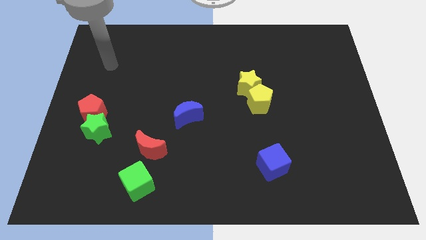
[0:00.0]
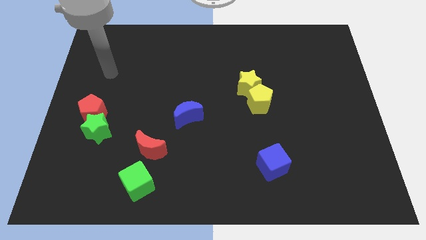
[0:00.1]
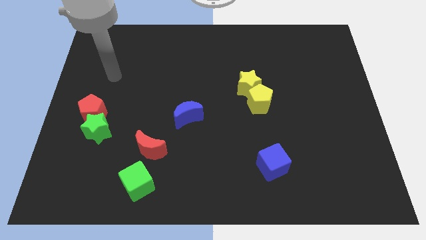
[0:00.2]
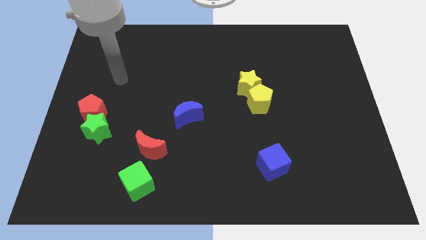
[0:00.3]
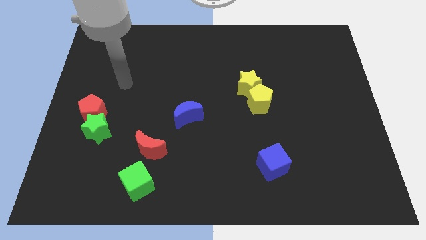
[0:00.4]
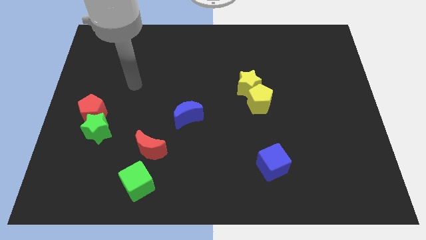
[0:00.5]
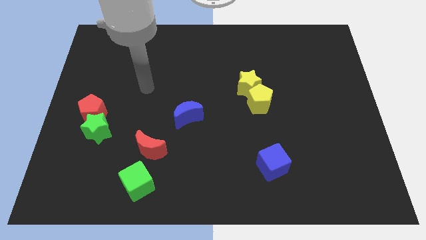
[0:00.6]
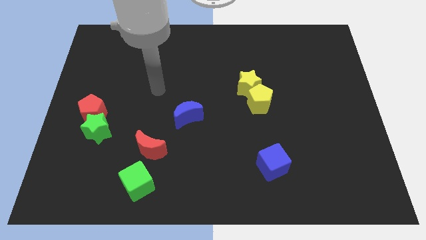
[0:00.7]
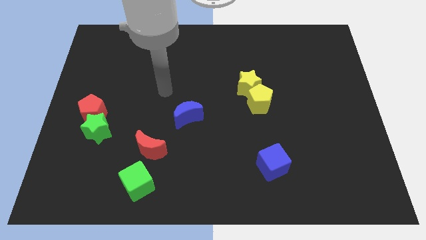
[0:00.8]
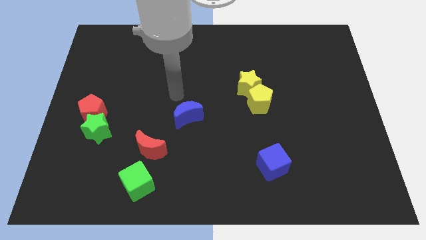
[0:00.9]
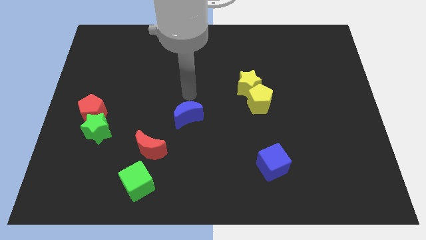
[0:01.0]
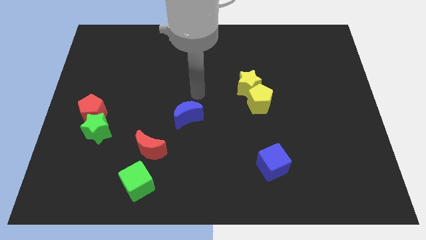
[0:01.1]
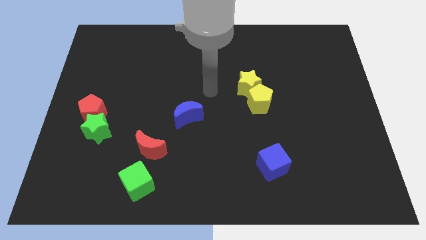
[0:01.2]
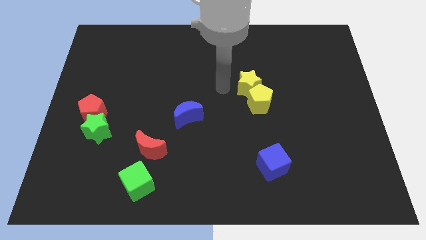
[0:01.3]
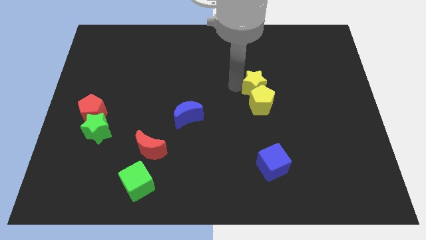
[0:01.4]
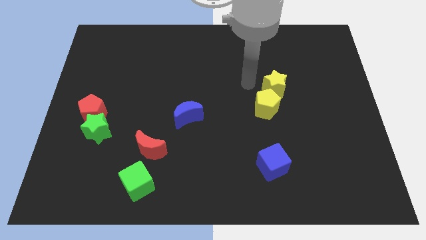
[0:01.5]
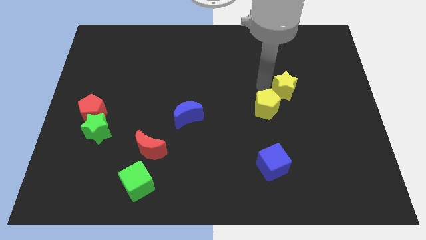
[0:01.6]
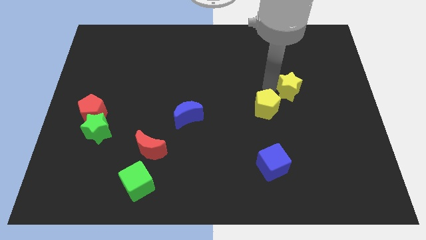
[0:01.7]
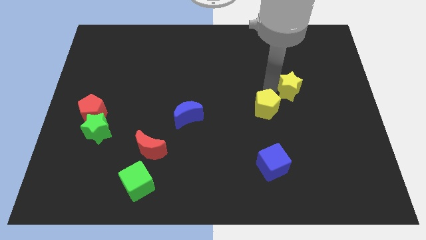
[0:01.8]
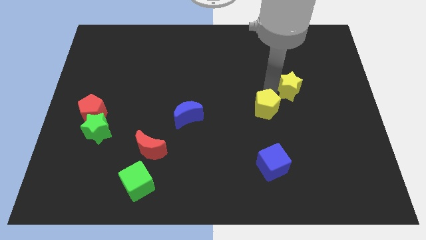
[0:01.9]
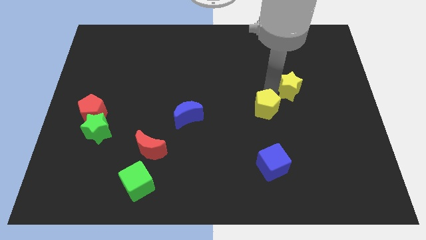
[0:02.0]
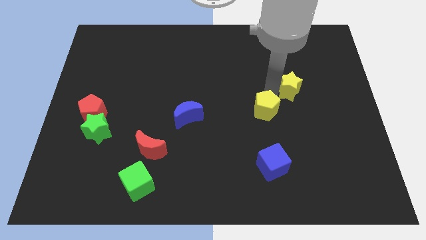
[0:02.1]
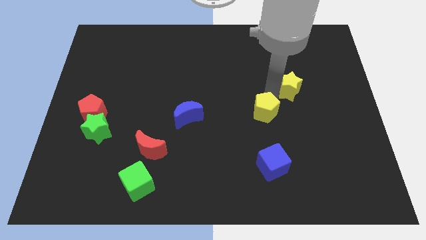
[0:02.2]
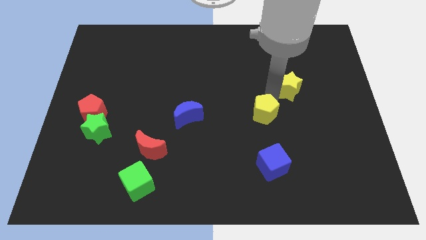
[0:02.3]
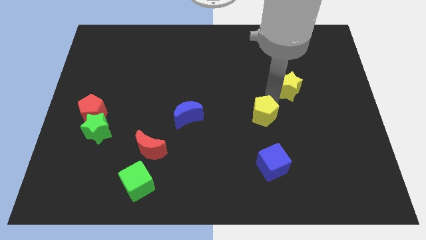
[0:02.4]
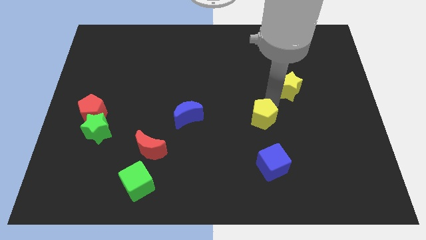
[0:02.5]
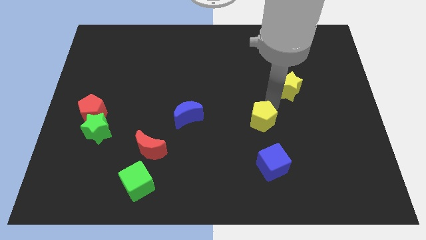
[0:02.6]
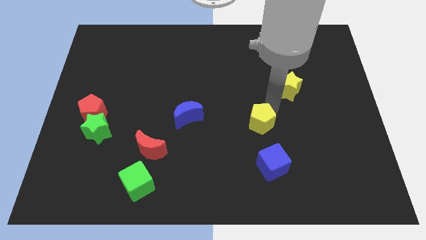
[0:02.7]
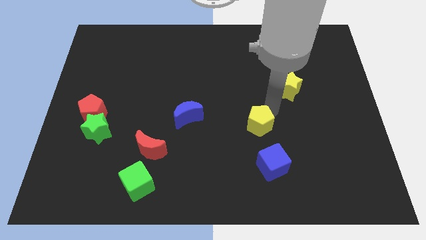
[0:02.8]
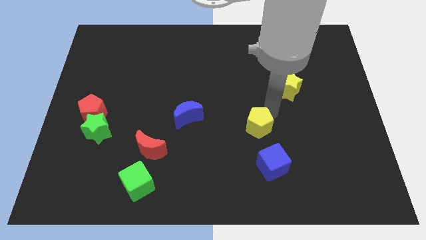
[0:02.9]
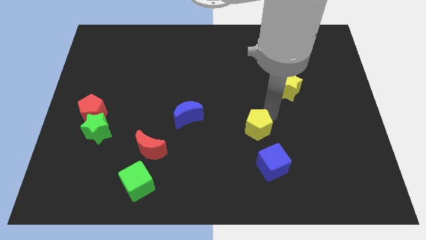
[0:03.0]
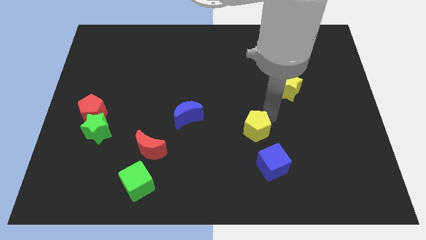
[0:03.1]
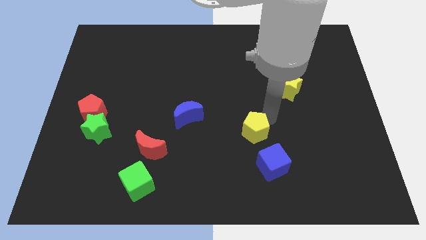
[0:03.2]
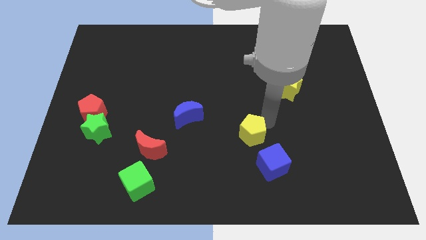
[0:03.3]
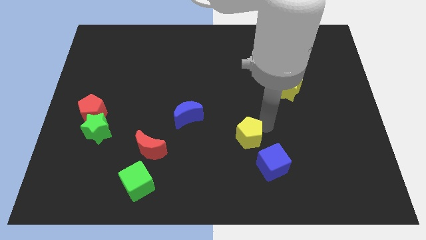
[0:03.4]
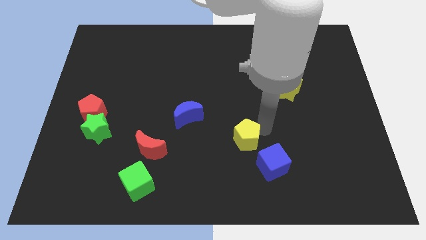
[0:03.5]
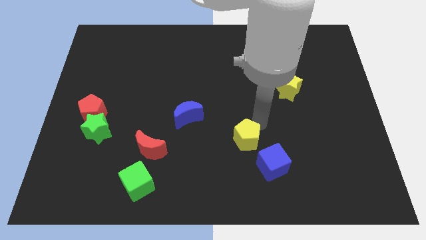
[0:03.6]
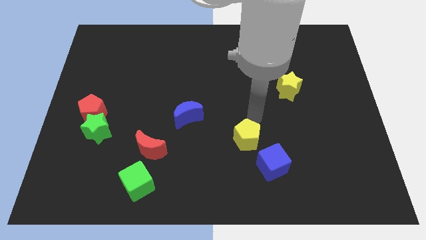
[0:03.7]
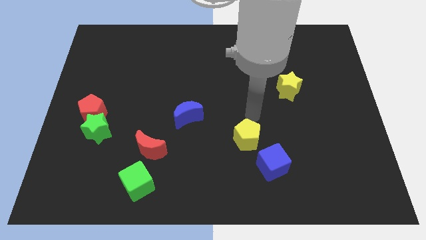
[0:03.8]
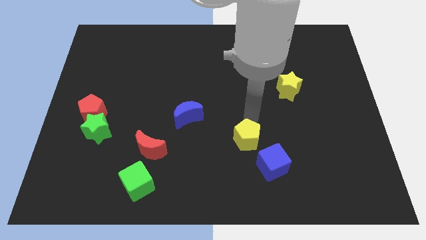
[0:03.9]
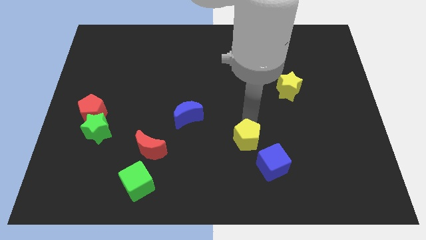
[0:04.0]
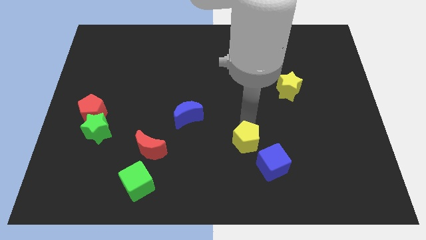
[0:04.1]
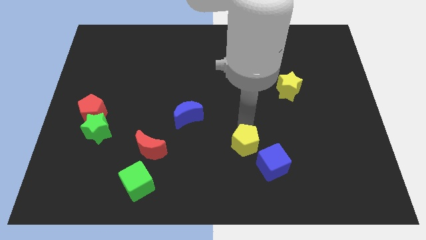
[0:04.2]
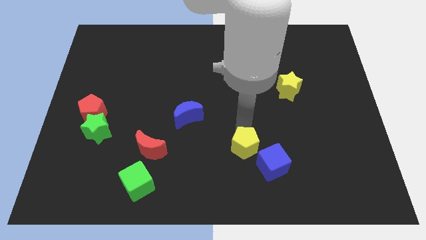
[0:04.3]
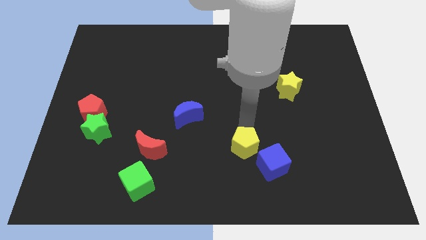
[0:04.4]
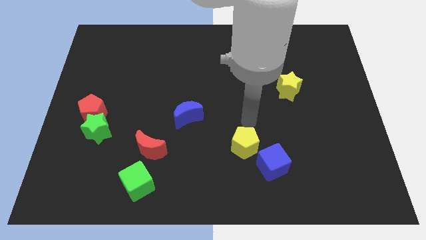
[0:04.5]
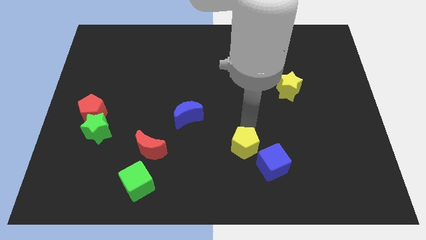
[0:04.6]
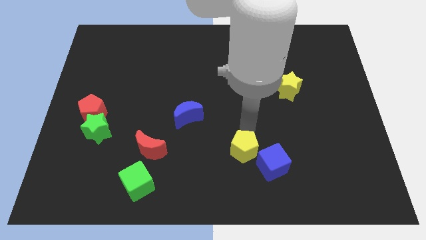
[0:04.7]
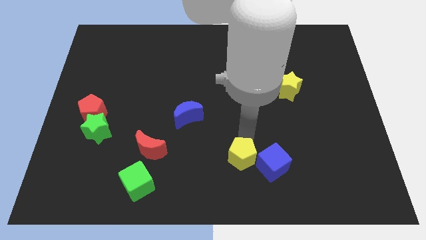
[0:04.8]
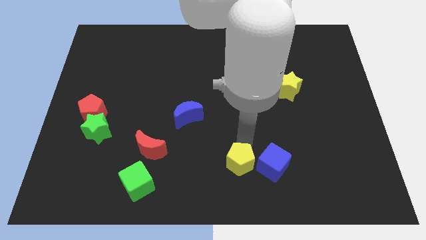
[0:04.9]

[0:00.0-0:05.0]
move the yellow pentagon to the bottom

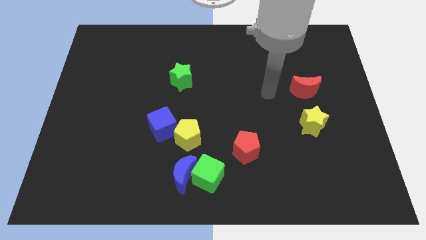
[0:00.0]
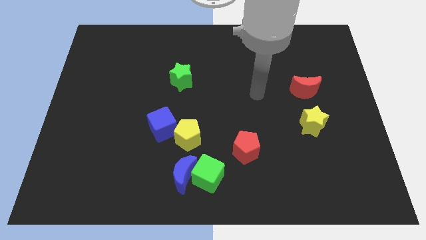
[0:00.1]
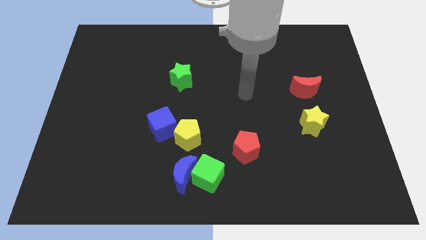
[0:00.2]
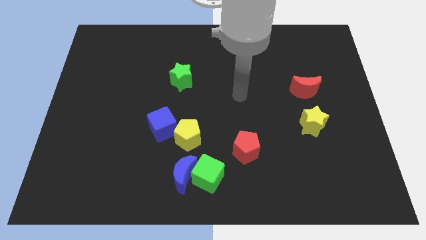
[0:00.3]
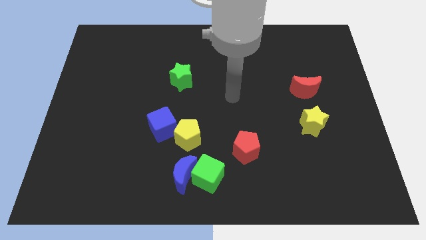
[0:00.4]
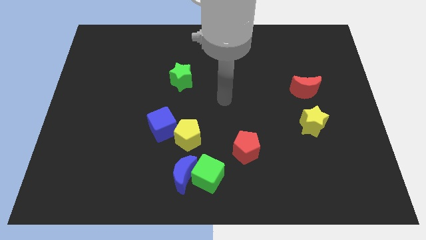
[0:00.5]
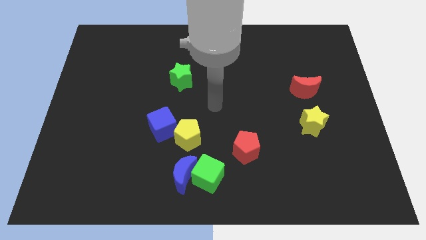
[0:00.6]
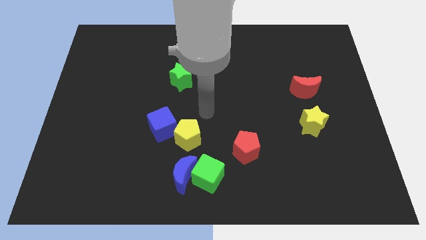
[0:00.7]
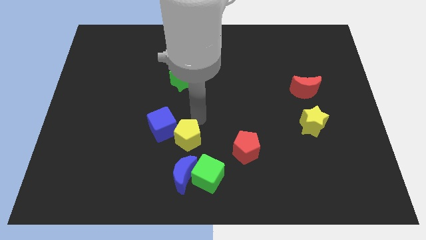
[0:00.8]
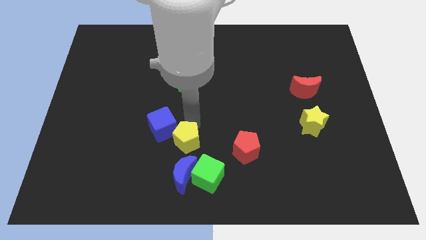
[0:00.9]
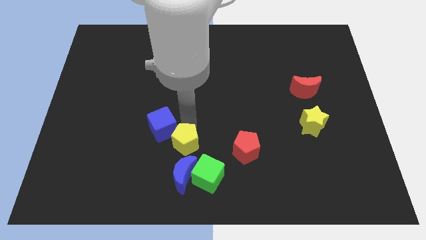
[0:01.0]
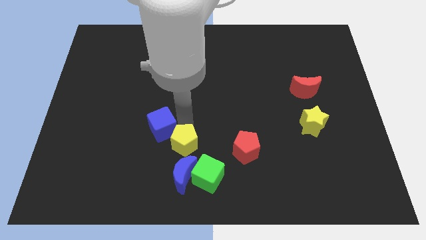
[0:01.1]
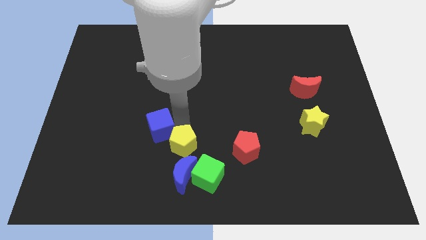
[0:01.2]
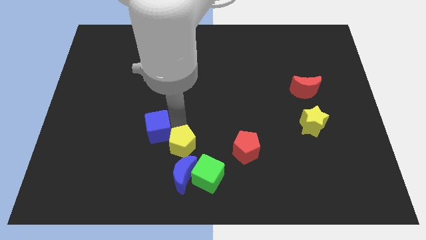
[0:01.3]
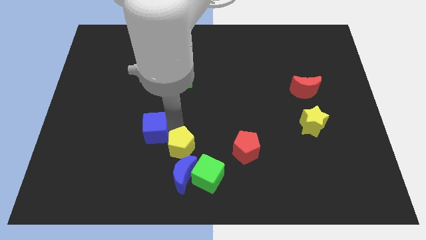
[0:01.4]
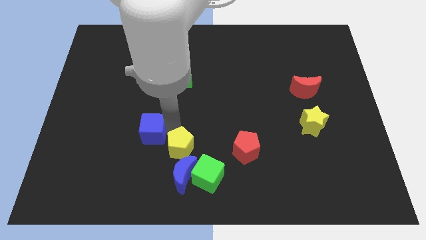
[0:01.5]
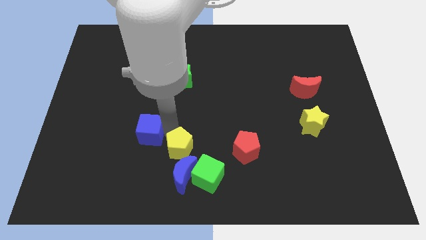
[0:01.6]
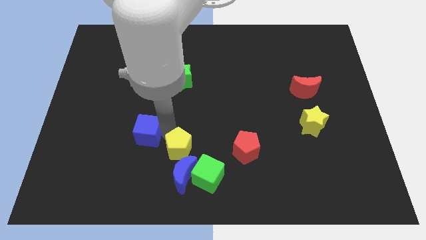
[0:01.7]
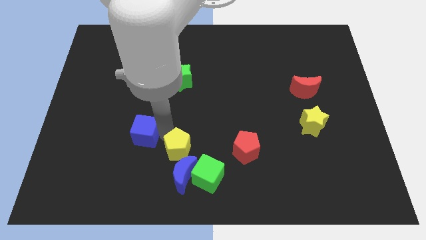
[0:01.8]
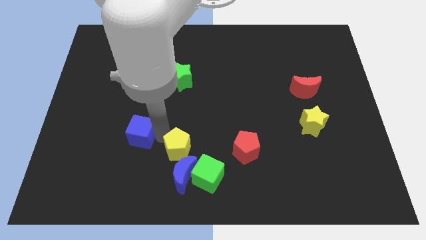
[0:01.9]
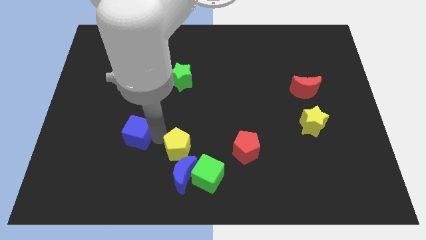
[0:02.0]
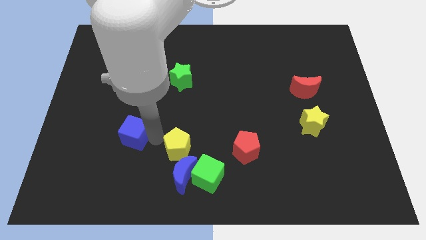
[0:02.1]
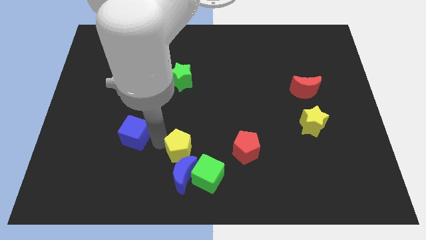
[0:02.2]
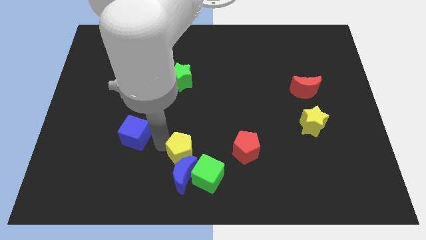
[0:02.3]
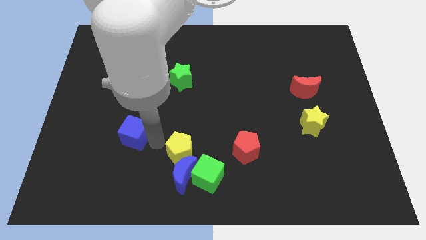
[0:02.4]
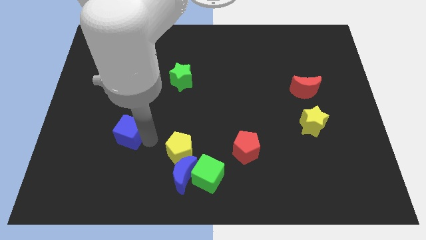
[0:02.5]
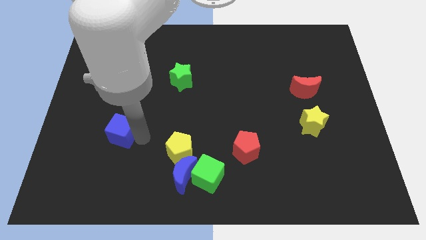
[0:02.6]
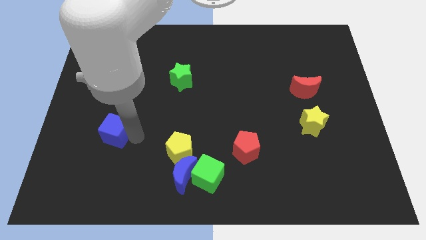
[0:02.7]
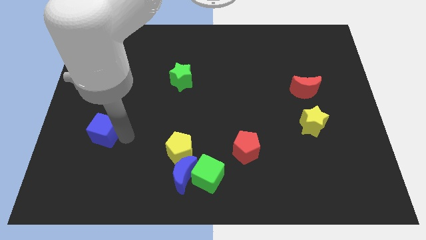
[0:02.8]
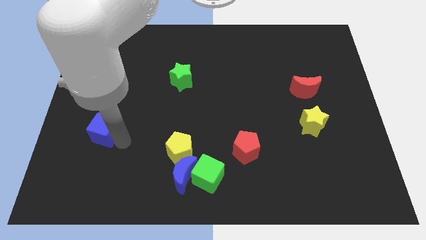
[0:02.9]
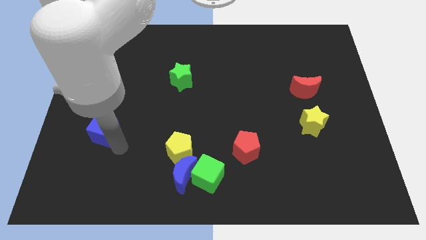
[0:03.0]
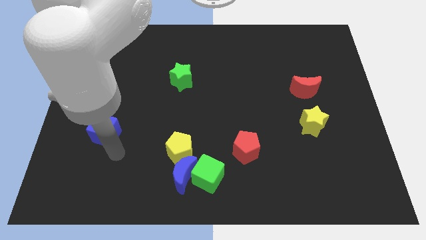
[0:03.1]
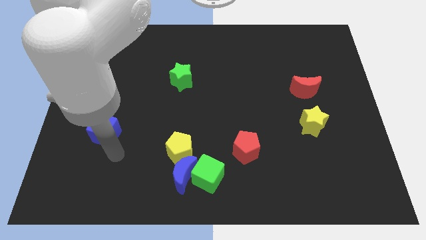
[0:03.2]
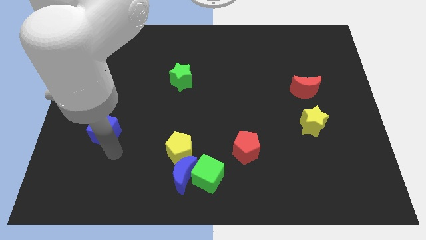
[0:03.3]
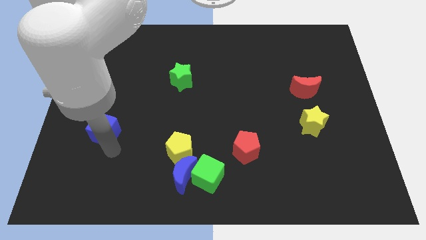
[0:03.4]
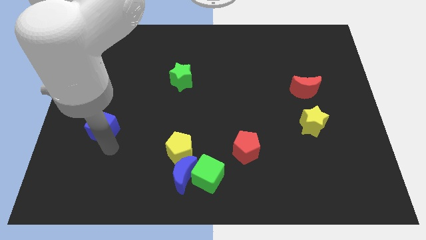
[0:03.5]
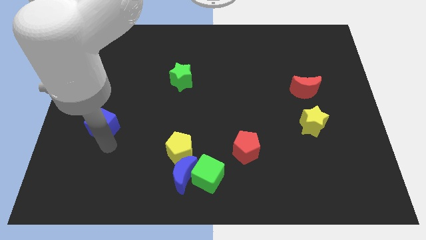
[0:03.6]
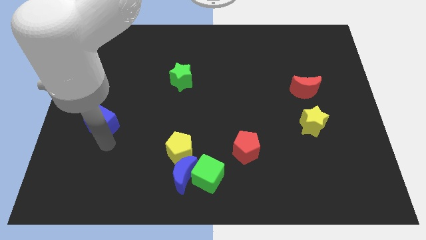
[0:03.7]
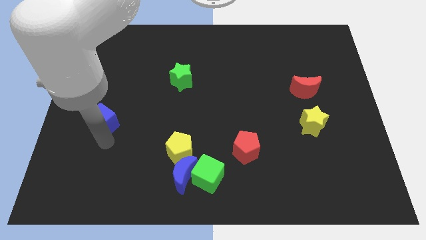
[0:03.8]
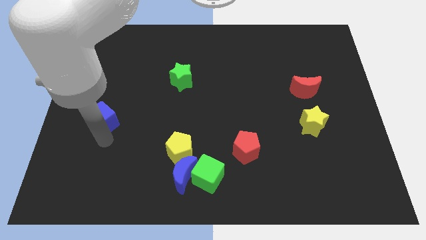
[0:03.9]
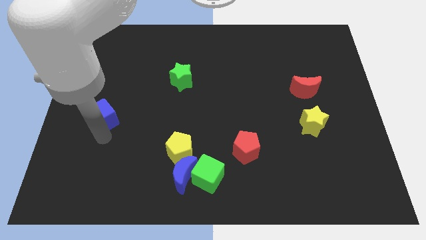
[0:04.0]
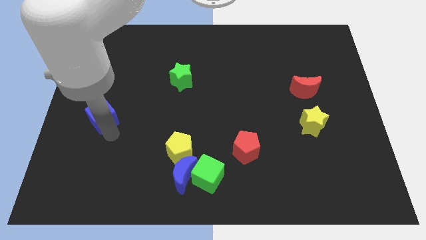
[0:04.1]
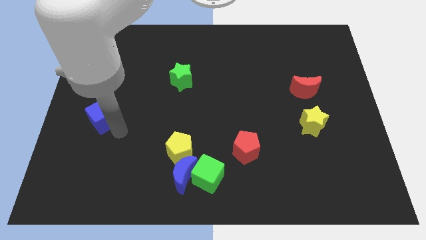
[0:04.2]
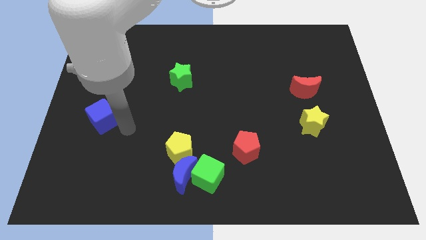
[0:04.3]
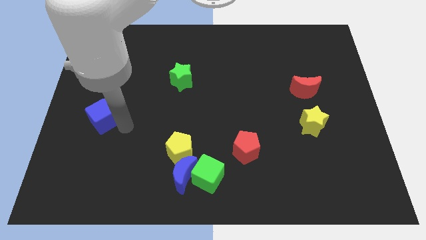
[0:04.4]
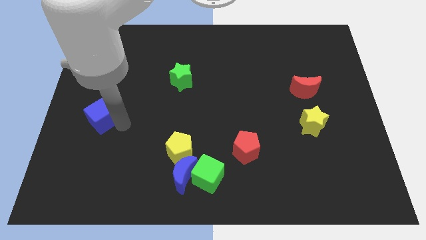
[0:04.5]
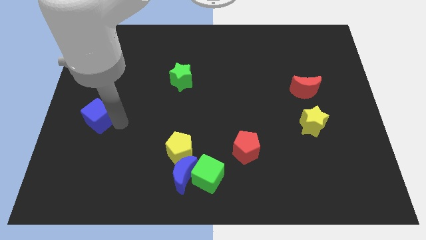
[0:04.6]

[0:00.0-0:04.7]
slide the blue cube to the left side
